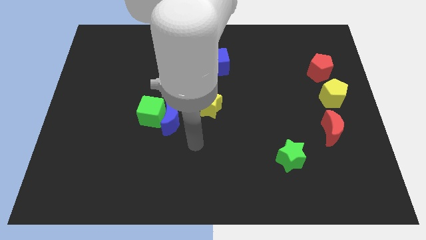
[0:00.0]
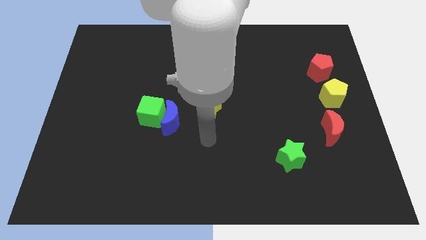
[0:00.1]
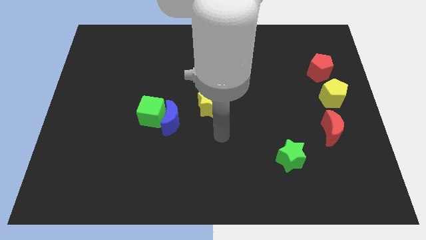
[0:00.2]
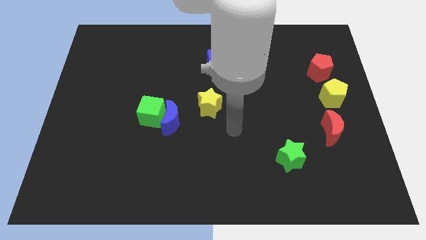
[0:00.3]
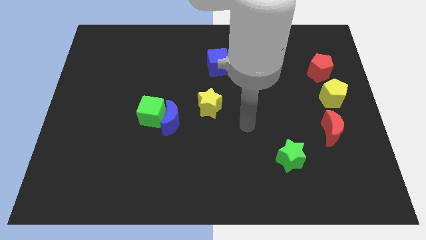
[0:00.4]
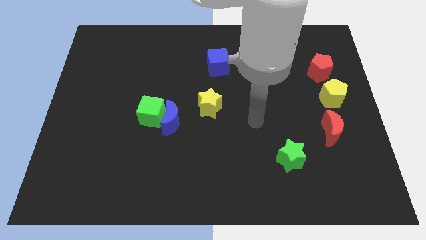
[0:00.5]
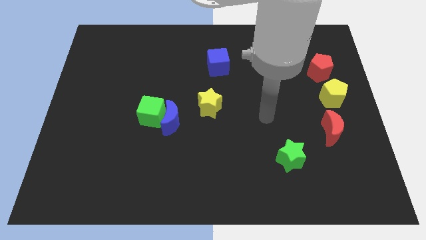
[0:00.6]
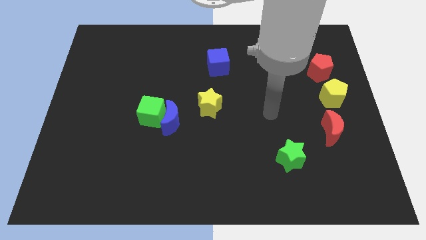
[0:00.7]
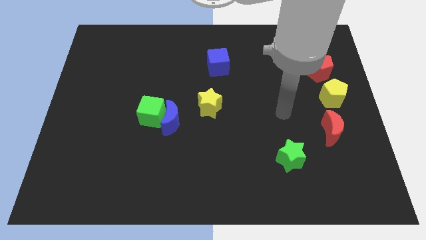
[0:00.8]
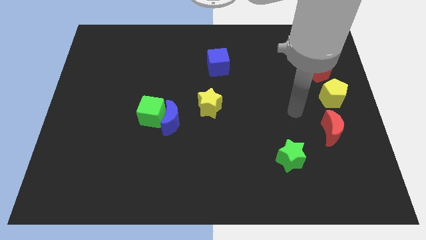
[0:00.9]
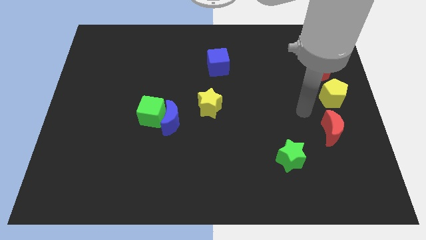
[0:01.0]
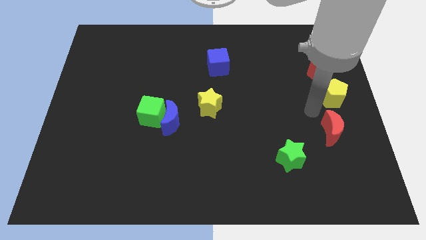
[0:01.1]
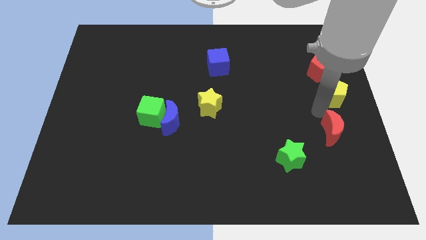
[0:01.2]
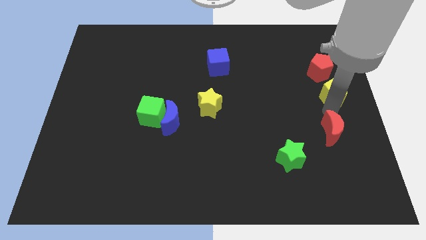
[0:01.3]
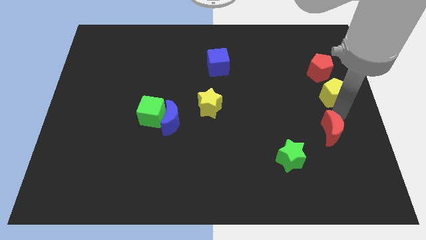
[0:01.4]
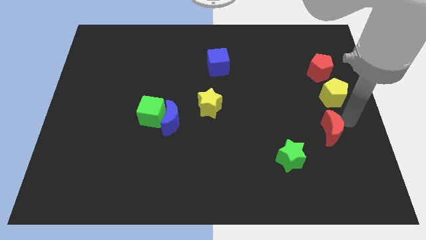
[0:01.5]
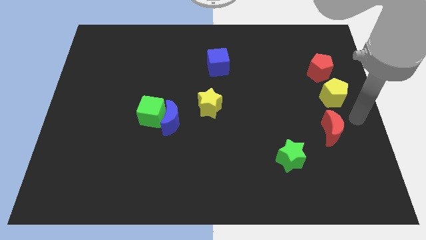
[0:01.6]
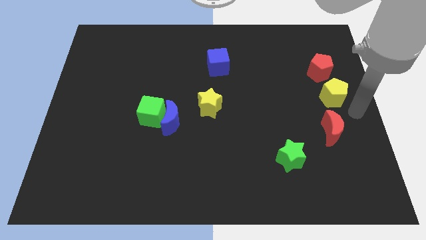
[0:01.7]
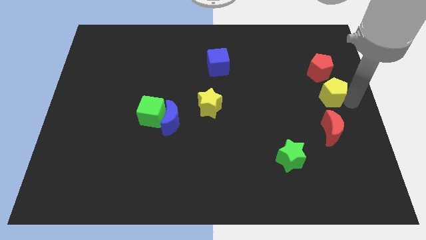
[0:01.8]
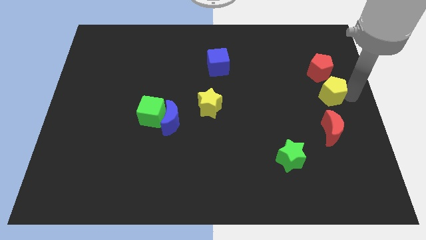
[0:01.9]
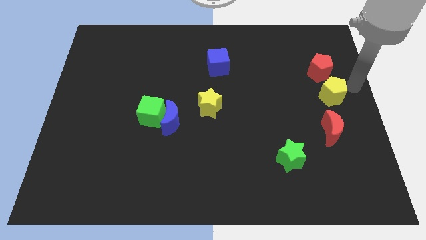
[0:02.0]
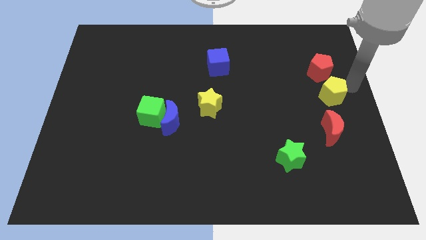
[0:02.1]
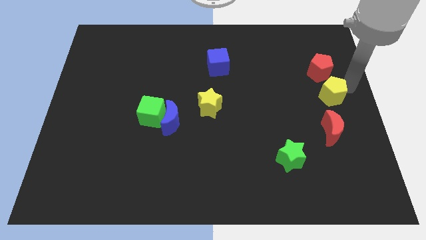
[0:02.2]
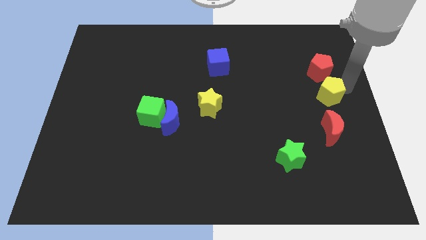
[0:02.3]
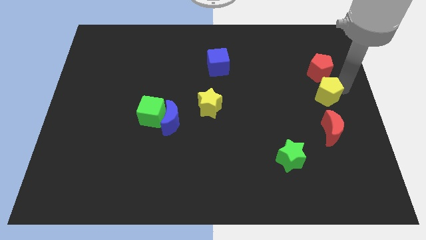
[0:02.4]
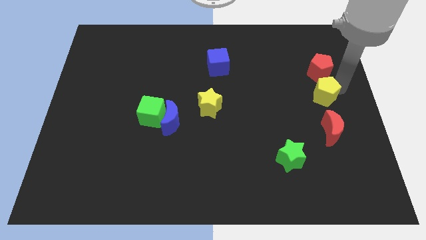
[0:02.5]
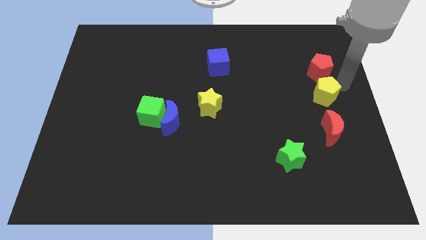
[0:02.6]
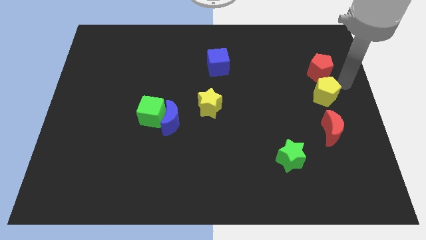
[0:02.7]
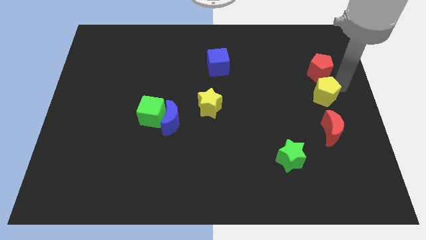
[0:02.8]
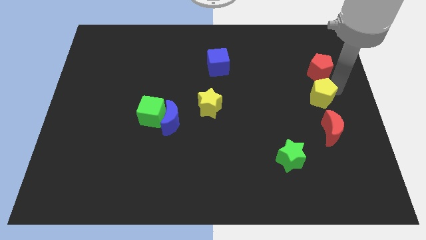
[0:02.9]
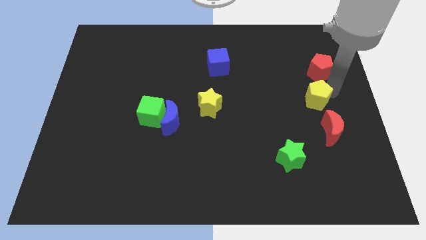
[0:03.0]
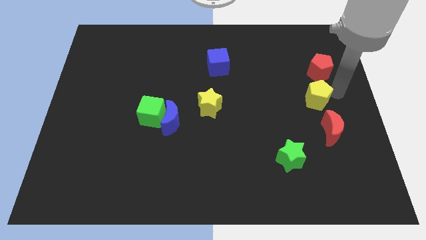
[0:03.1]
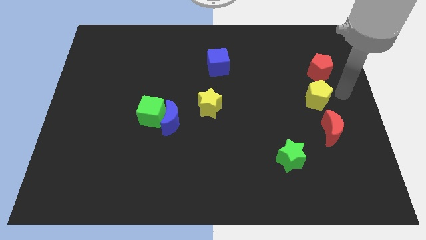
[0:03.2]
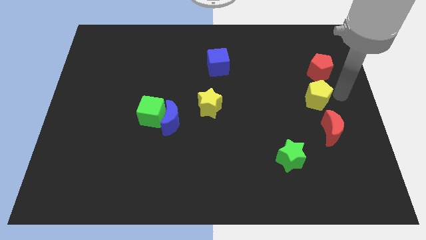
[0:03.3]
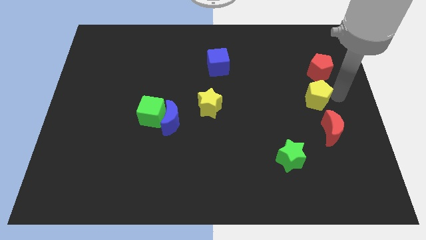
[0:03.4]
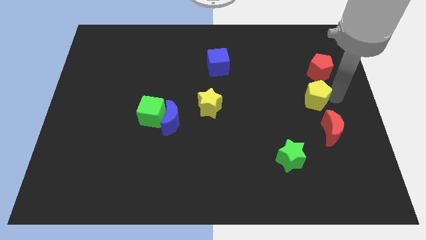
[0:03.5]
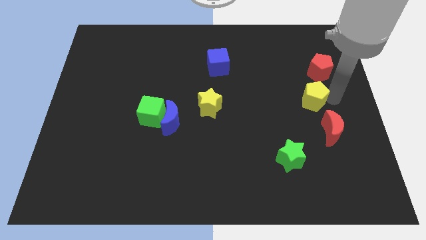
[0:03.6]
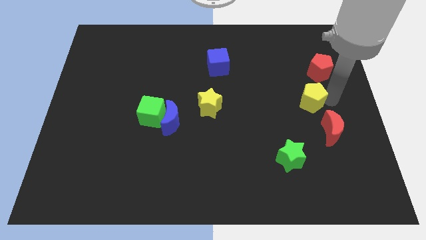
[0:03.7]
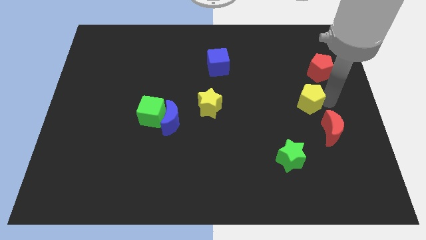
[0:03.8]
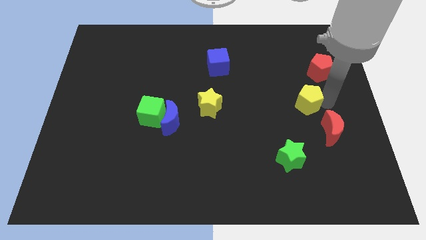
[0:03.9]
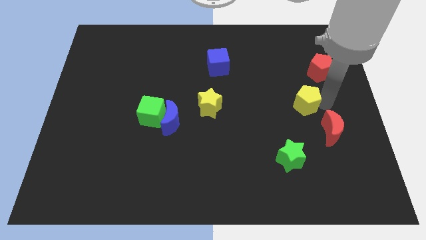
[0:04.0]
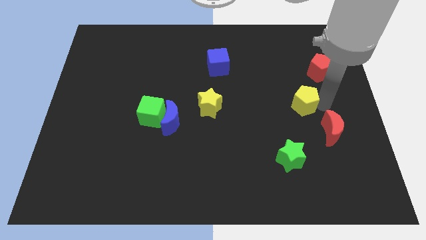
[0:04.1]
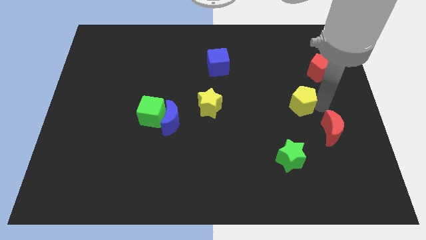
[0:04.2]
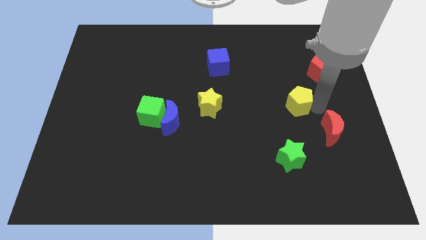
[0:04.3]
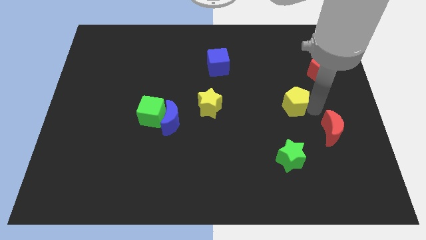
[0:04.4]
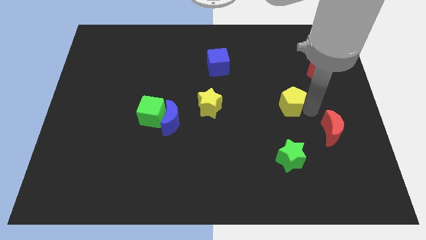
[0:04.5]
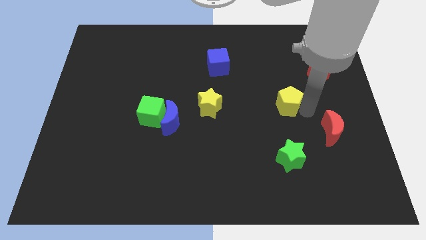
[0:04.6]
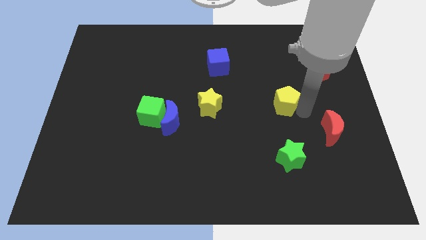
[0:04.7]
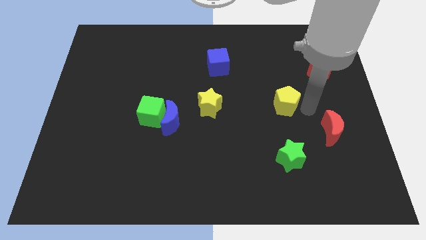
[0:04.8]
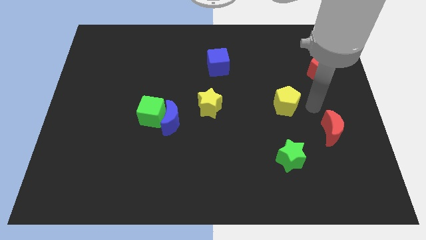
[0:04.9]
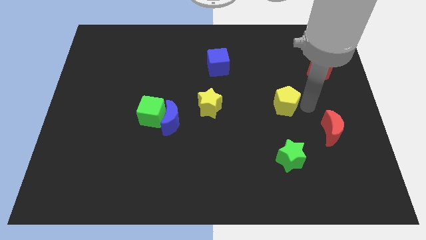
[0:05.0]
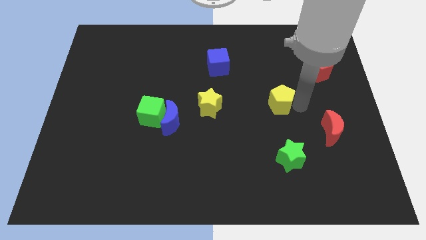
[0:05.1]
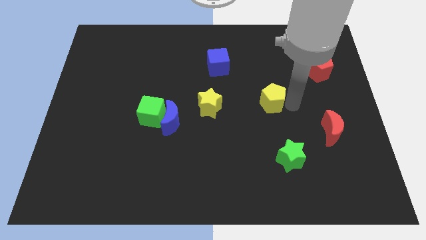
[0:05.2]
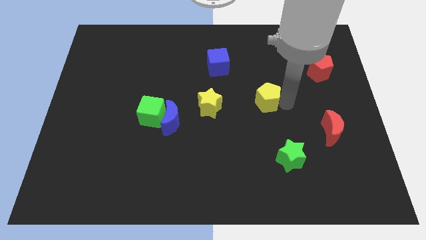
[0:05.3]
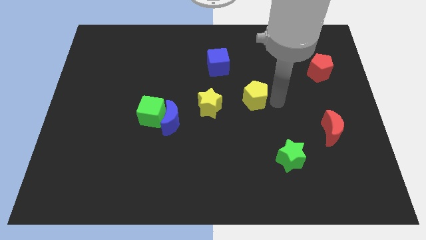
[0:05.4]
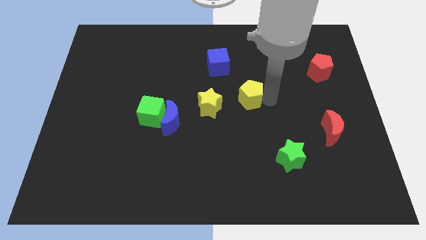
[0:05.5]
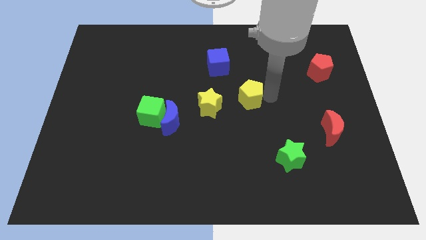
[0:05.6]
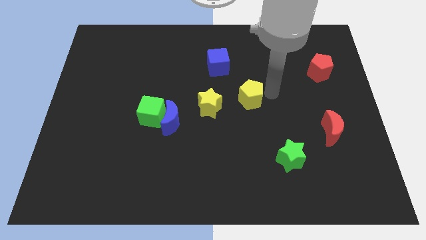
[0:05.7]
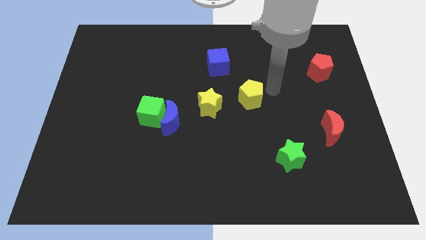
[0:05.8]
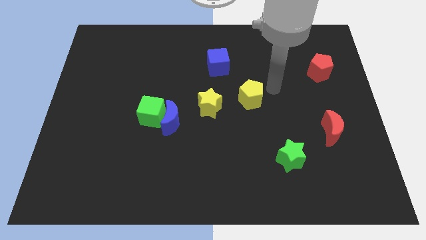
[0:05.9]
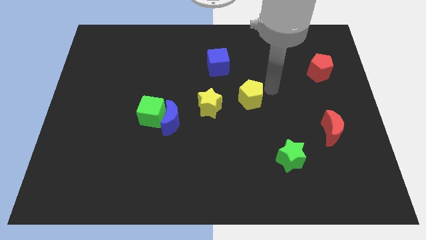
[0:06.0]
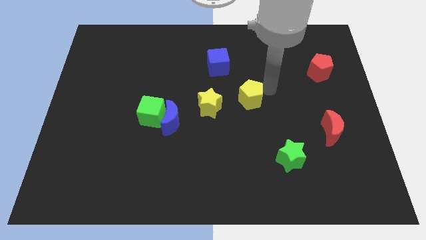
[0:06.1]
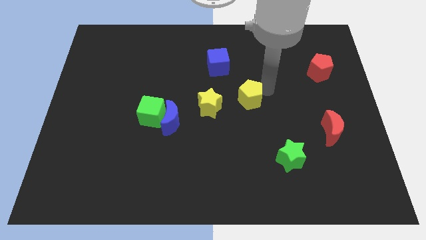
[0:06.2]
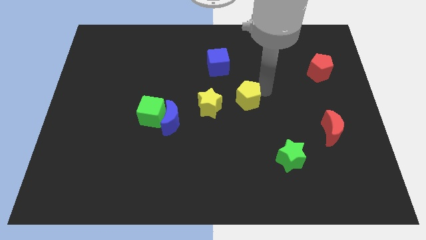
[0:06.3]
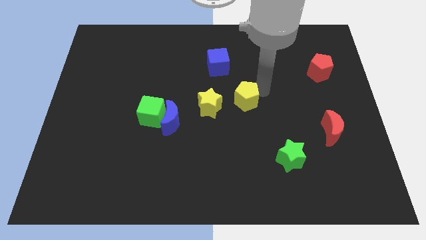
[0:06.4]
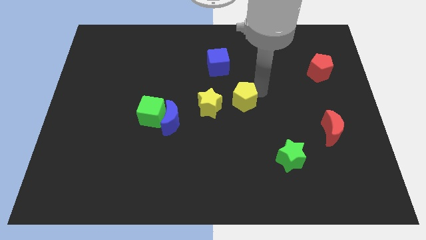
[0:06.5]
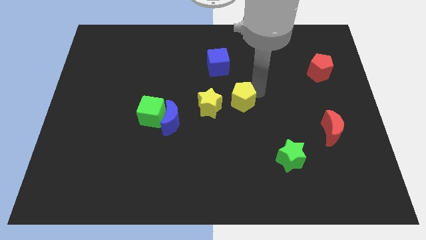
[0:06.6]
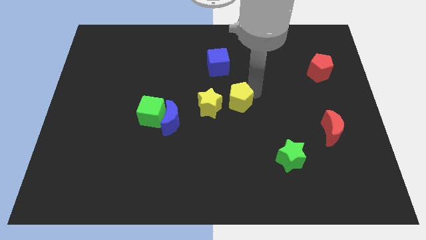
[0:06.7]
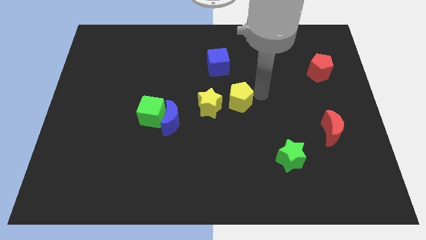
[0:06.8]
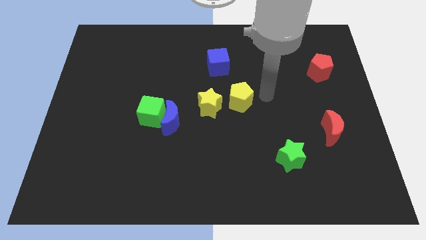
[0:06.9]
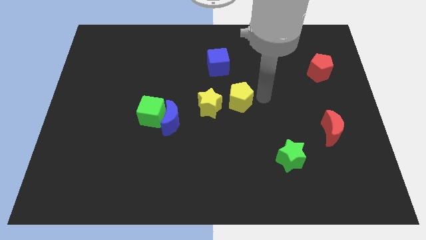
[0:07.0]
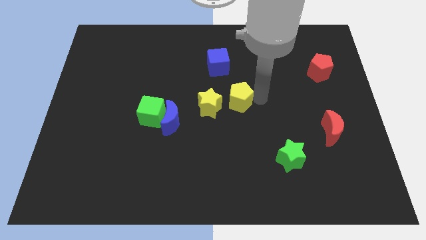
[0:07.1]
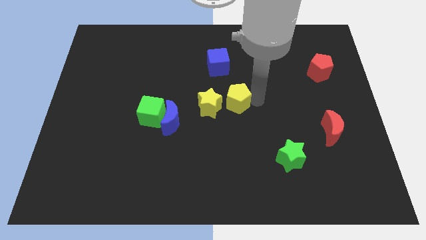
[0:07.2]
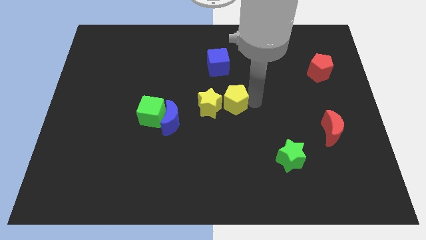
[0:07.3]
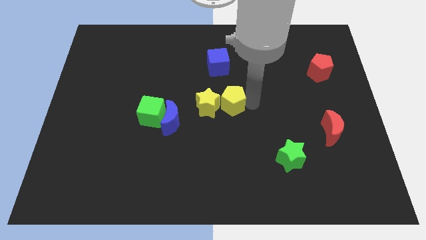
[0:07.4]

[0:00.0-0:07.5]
slide the yellow pentagon close to the yellow star

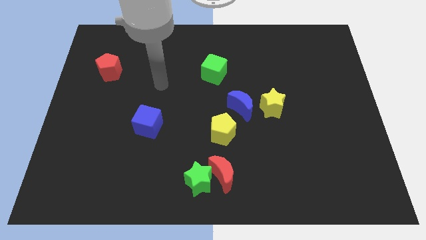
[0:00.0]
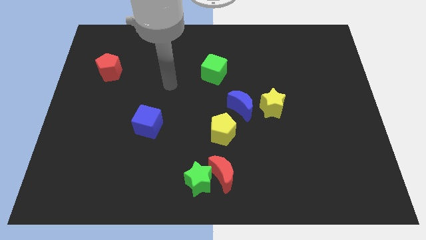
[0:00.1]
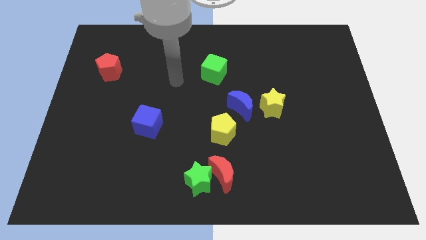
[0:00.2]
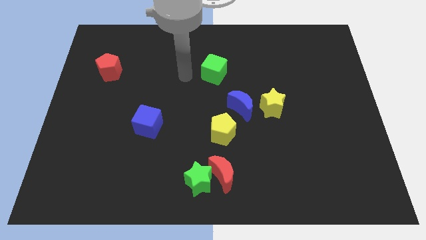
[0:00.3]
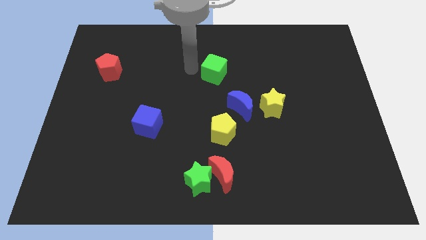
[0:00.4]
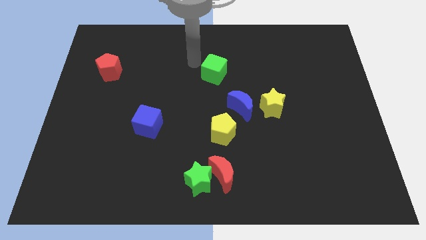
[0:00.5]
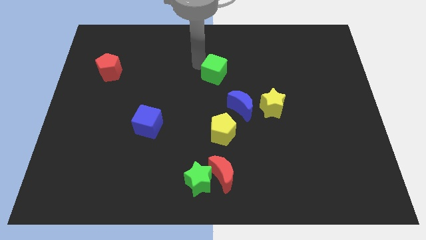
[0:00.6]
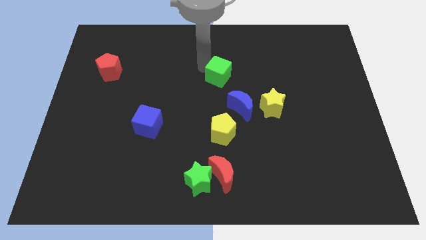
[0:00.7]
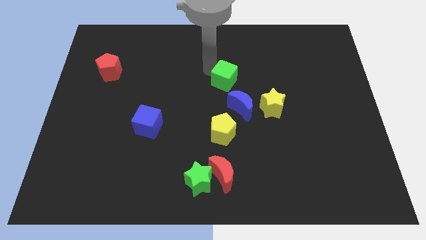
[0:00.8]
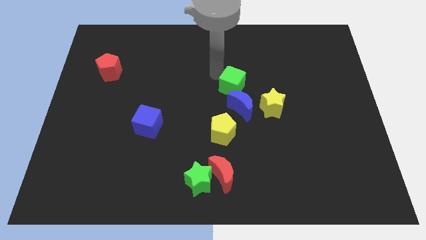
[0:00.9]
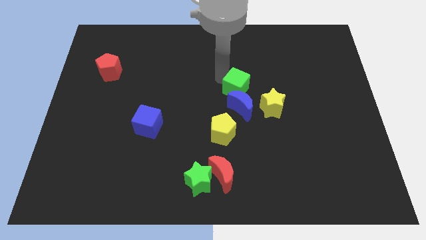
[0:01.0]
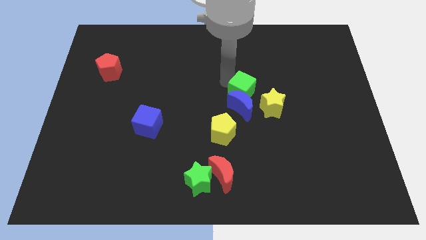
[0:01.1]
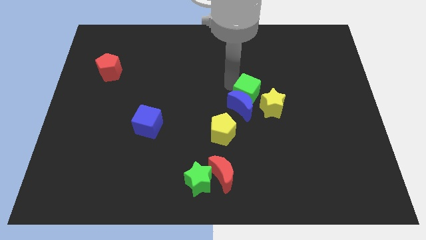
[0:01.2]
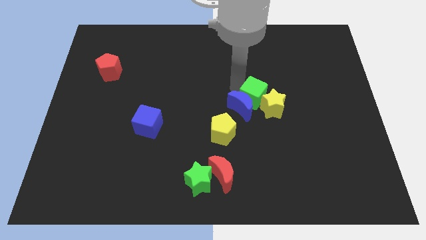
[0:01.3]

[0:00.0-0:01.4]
push the green cube close to the yellow star
